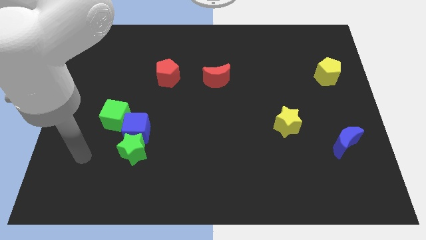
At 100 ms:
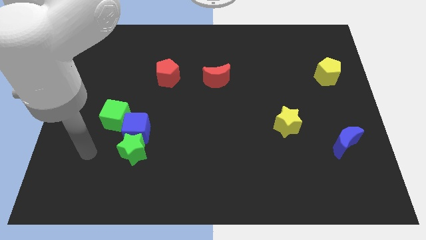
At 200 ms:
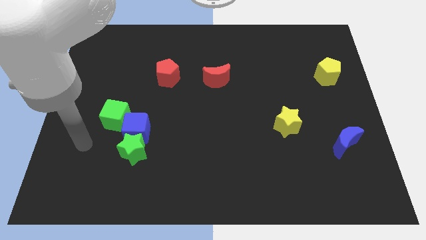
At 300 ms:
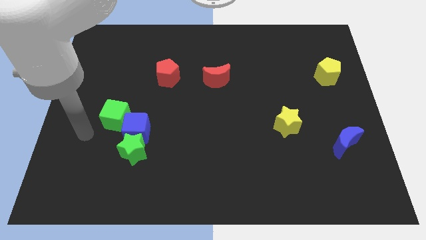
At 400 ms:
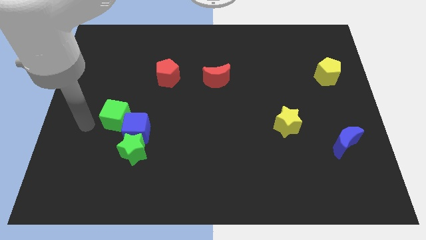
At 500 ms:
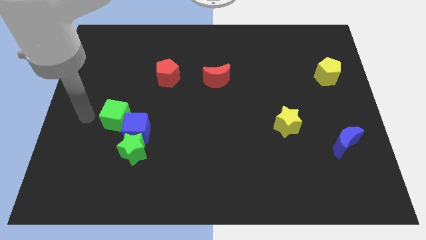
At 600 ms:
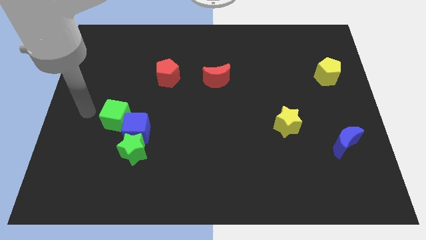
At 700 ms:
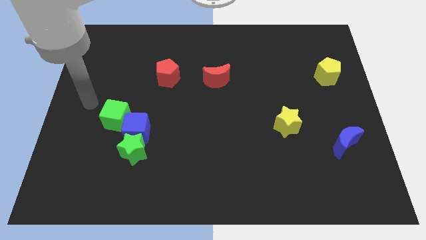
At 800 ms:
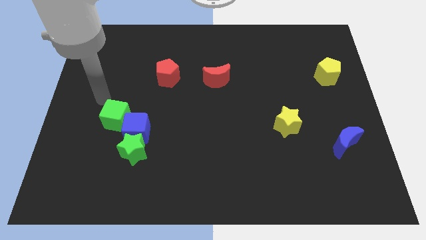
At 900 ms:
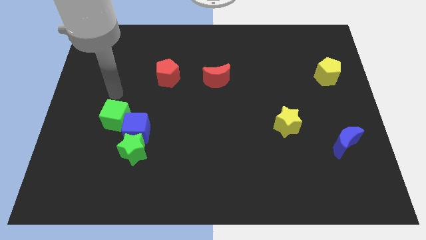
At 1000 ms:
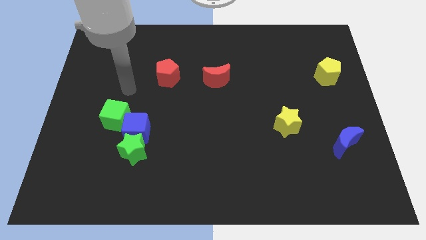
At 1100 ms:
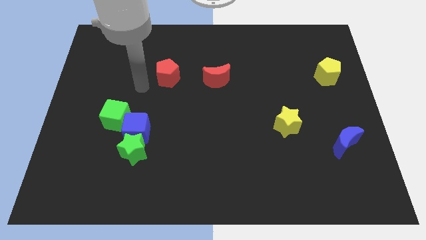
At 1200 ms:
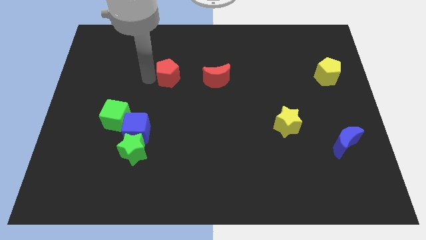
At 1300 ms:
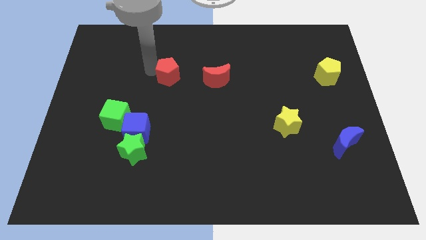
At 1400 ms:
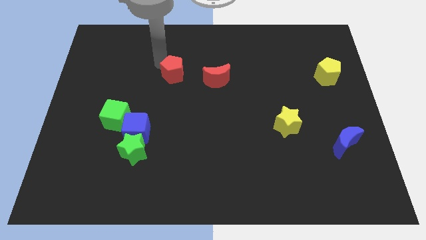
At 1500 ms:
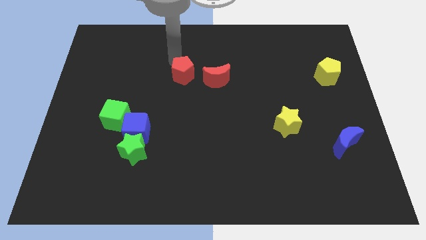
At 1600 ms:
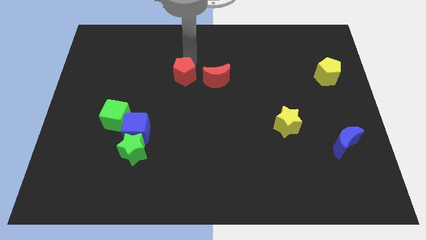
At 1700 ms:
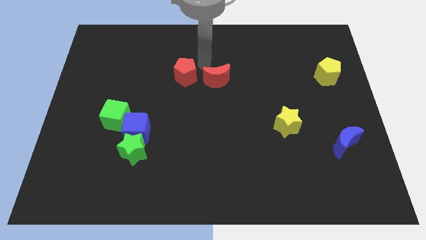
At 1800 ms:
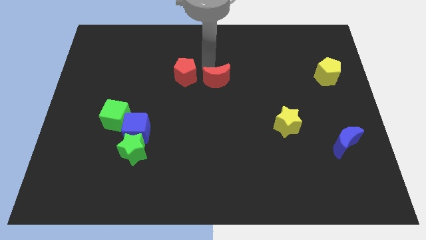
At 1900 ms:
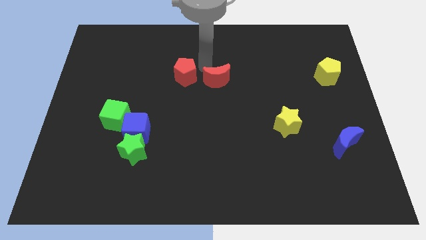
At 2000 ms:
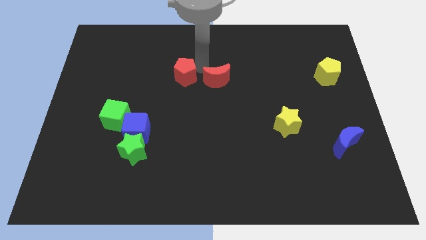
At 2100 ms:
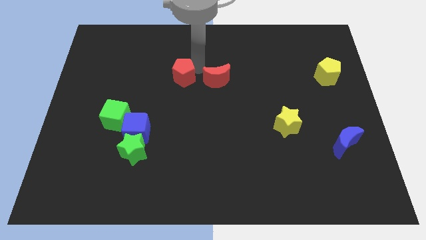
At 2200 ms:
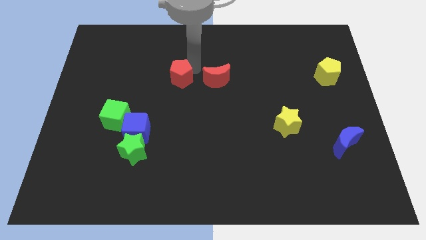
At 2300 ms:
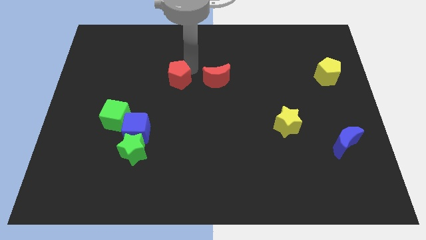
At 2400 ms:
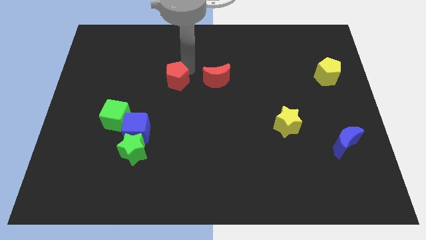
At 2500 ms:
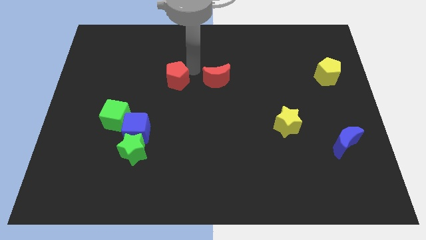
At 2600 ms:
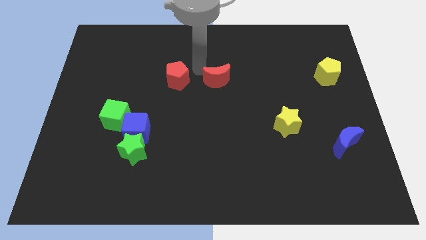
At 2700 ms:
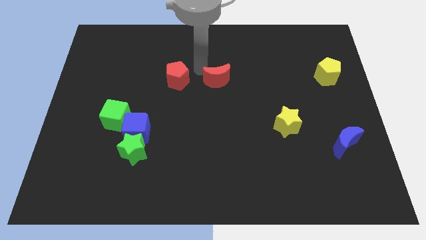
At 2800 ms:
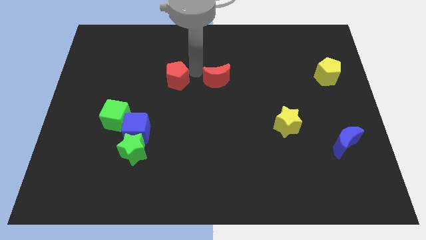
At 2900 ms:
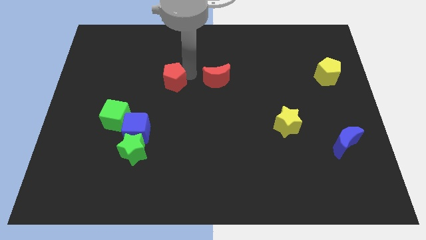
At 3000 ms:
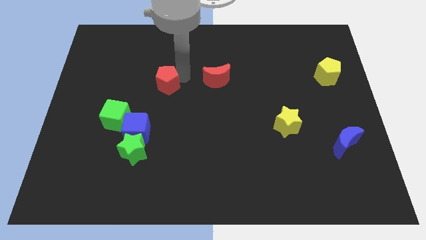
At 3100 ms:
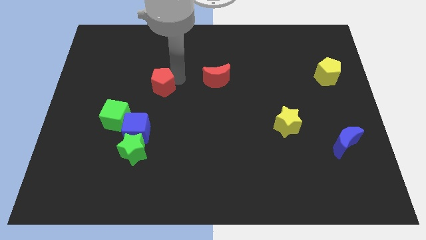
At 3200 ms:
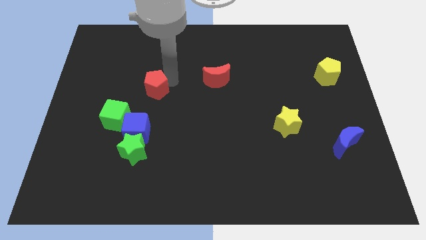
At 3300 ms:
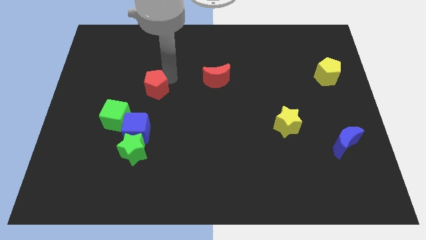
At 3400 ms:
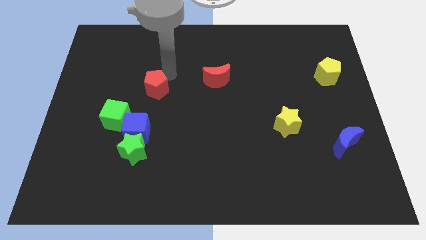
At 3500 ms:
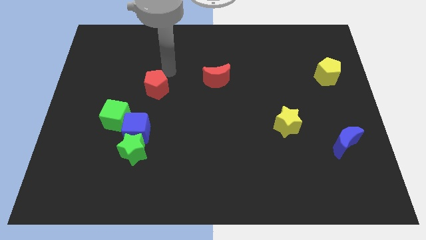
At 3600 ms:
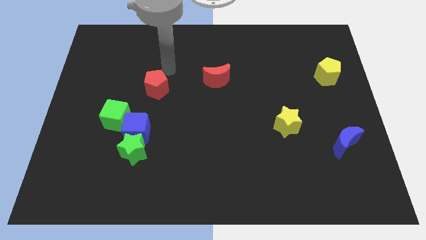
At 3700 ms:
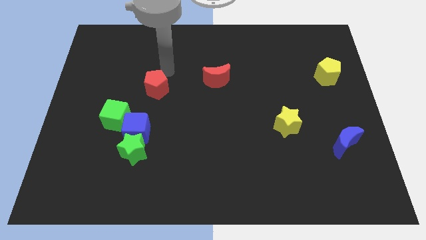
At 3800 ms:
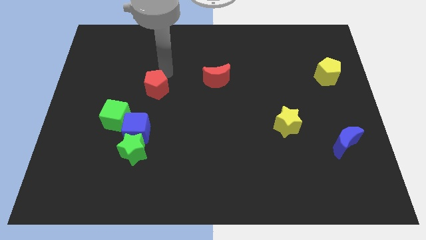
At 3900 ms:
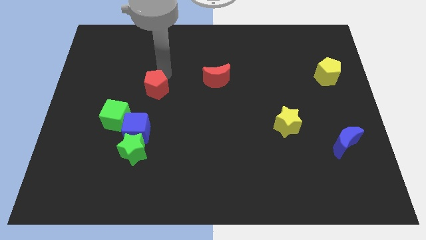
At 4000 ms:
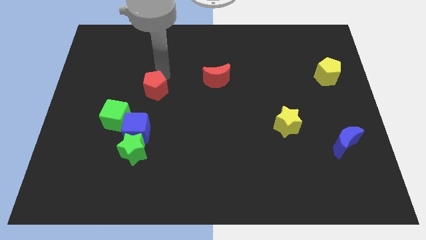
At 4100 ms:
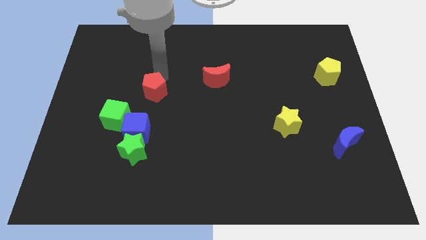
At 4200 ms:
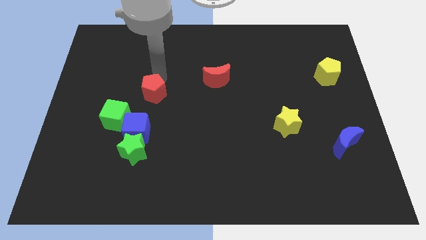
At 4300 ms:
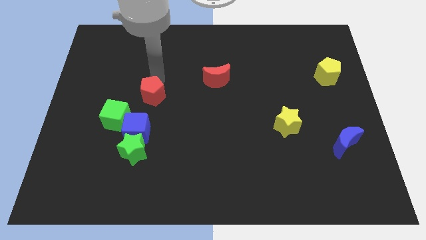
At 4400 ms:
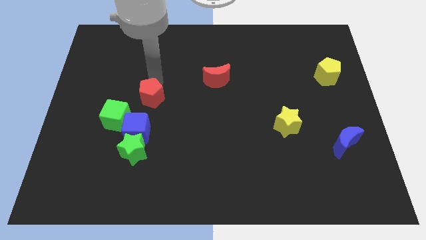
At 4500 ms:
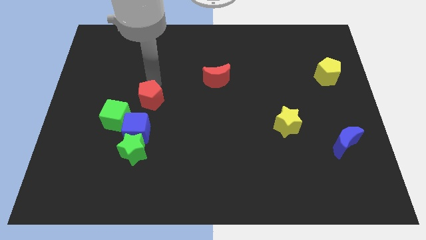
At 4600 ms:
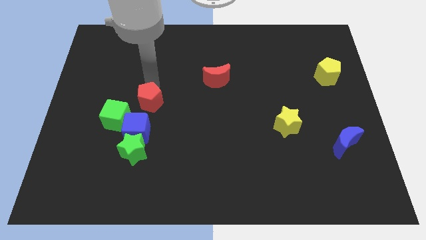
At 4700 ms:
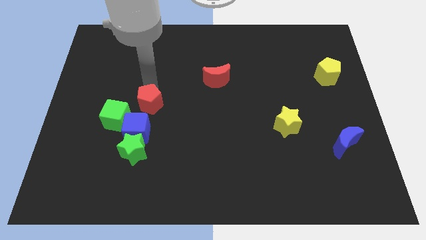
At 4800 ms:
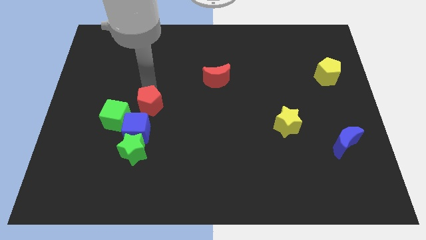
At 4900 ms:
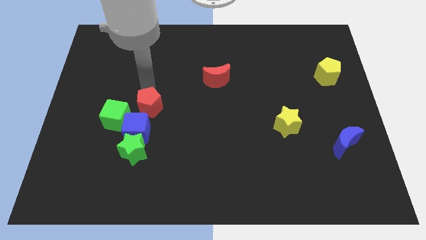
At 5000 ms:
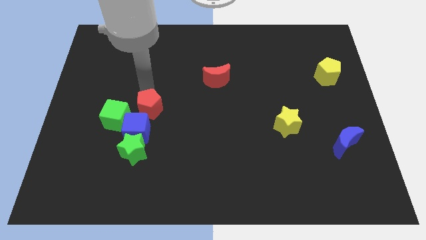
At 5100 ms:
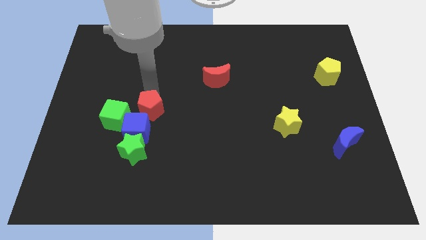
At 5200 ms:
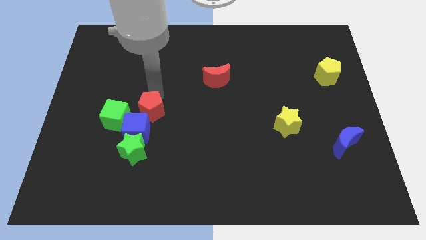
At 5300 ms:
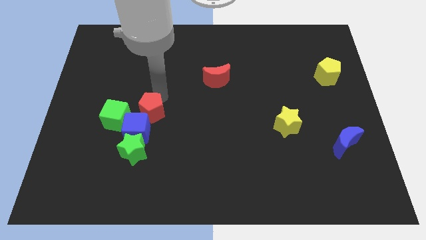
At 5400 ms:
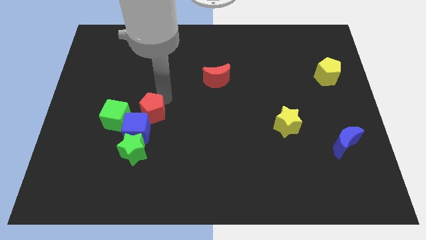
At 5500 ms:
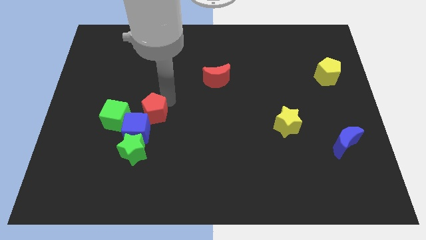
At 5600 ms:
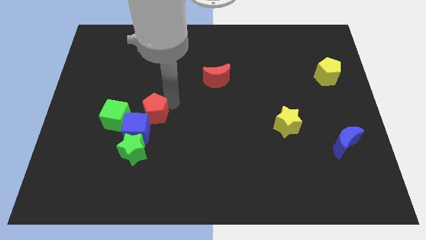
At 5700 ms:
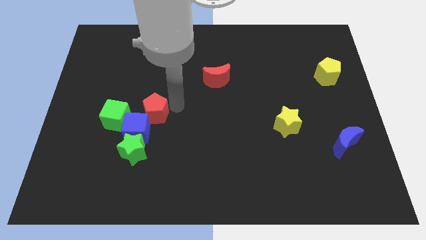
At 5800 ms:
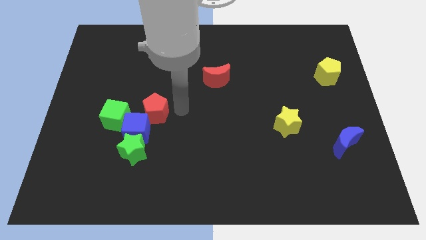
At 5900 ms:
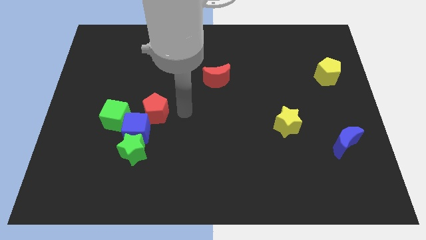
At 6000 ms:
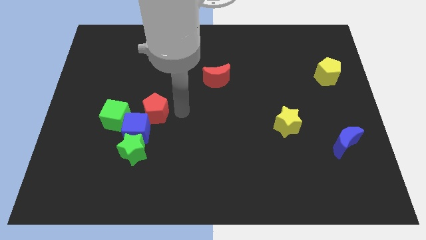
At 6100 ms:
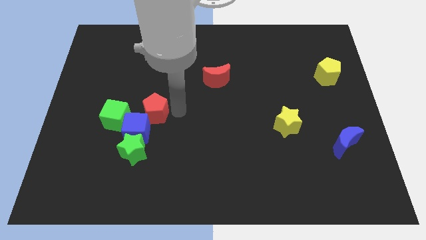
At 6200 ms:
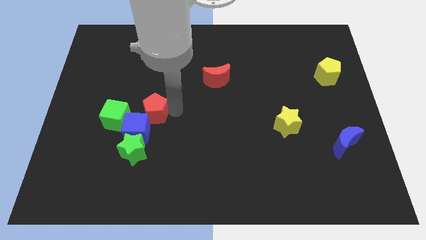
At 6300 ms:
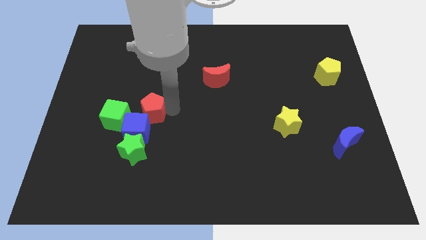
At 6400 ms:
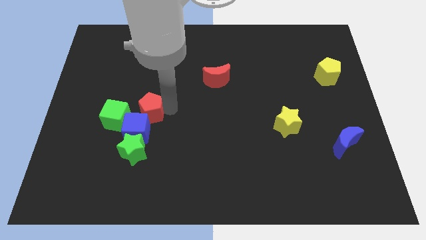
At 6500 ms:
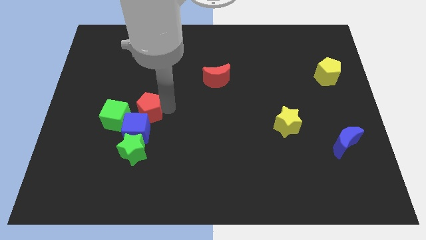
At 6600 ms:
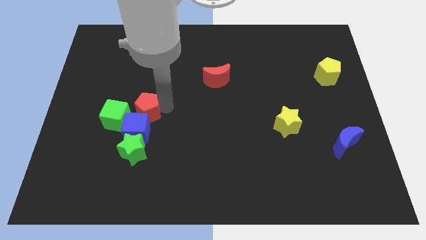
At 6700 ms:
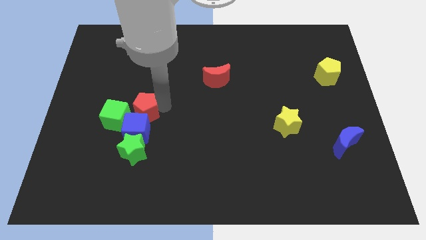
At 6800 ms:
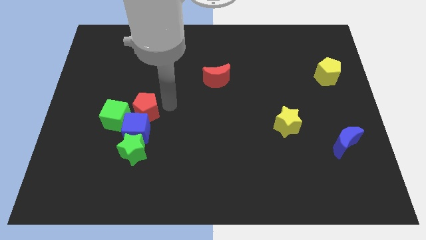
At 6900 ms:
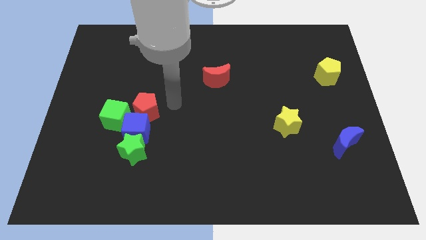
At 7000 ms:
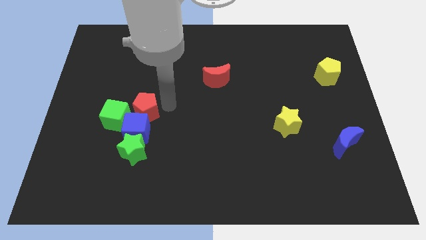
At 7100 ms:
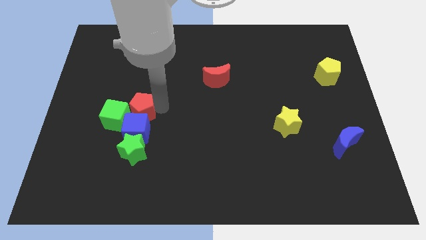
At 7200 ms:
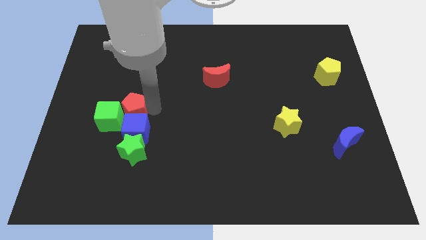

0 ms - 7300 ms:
slide the red pentagon towards the green cube

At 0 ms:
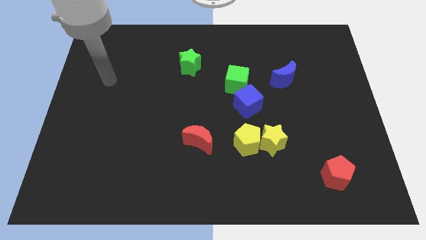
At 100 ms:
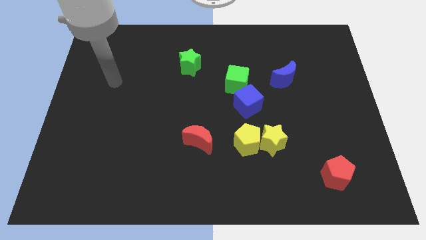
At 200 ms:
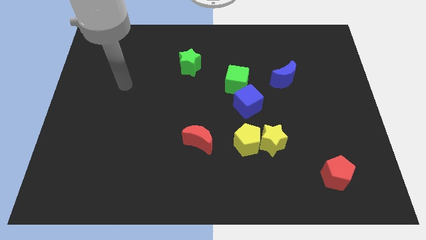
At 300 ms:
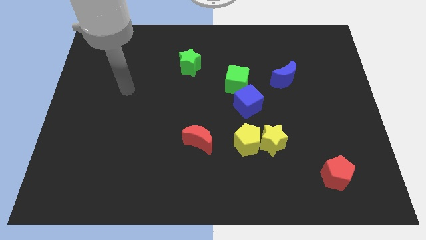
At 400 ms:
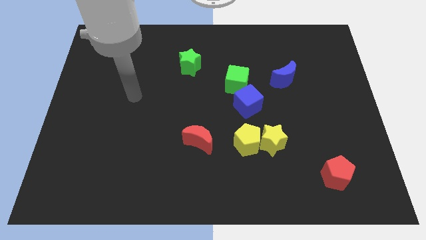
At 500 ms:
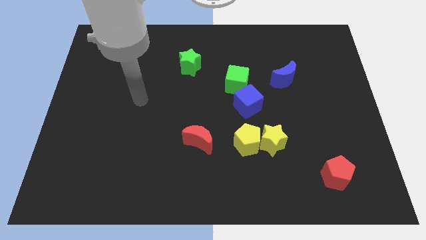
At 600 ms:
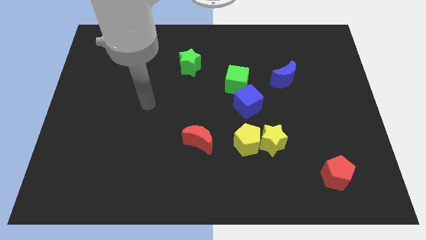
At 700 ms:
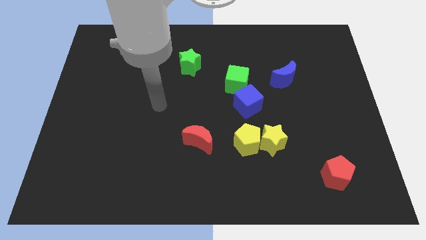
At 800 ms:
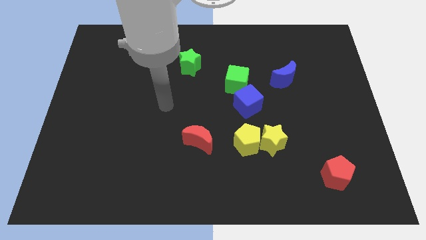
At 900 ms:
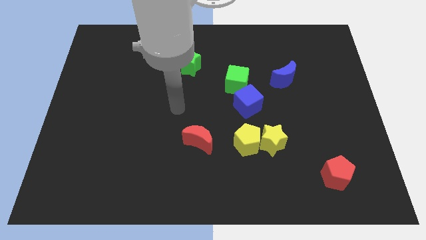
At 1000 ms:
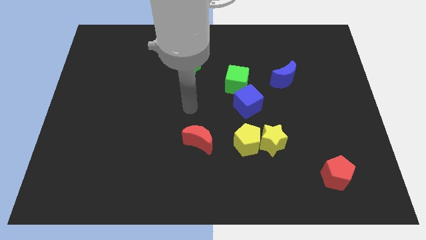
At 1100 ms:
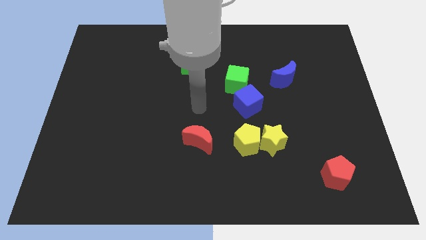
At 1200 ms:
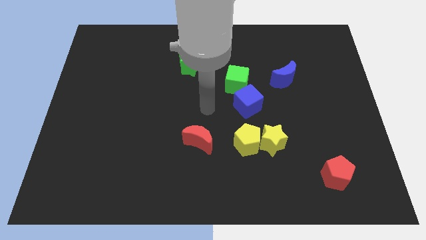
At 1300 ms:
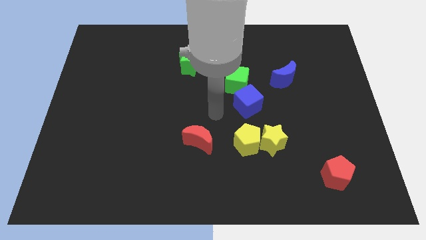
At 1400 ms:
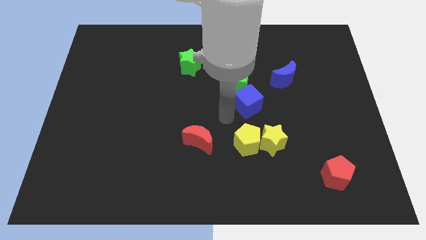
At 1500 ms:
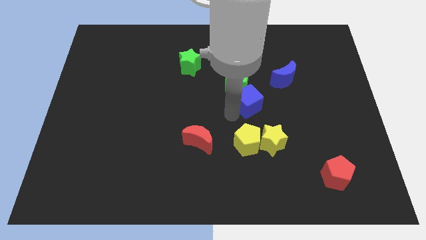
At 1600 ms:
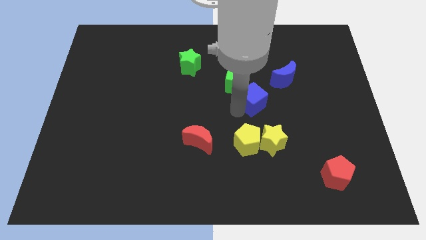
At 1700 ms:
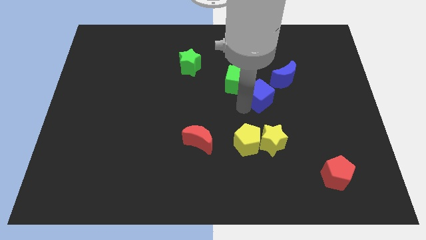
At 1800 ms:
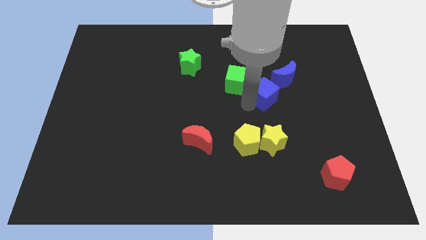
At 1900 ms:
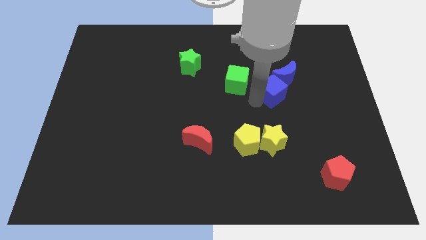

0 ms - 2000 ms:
push the blue cube close to the blue moon
